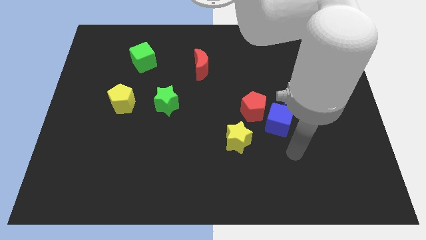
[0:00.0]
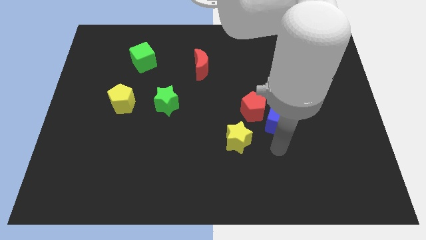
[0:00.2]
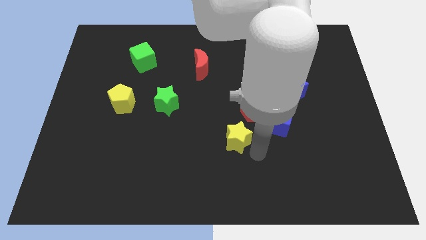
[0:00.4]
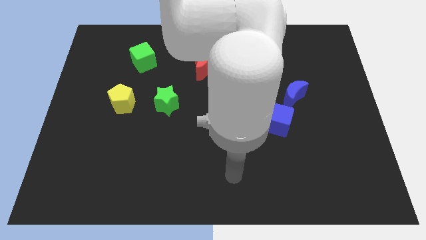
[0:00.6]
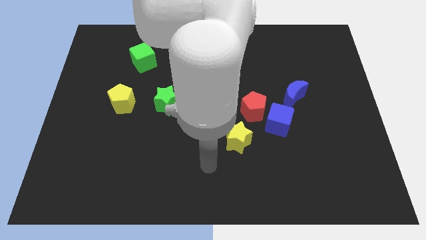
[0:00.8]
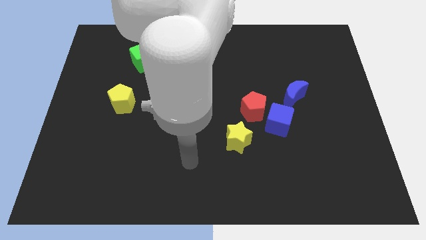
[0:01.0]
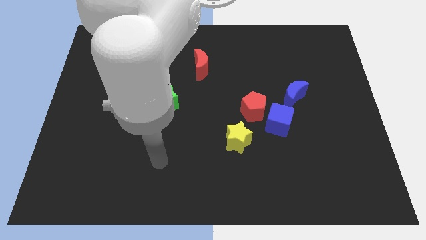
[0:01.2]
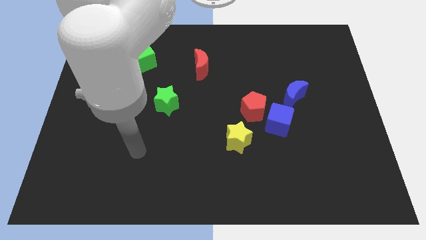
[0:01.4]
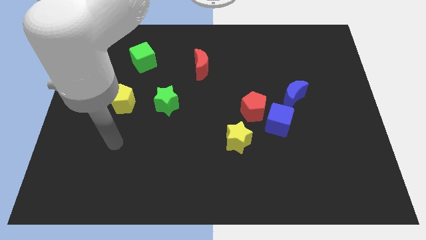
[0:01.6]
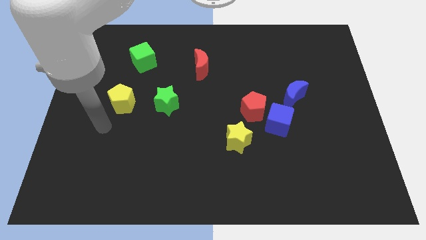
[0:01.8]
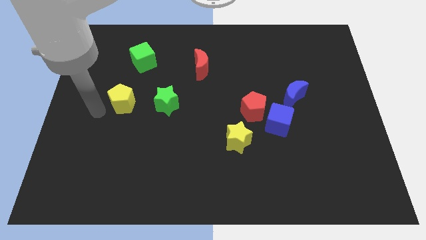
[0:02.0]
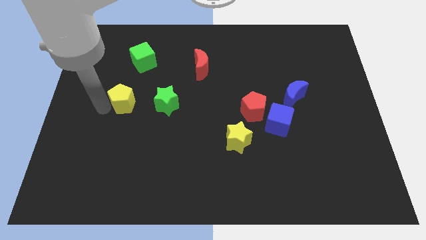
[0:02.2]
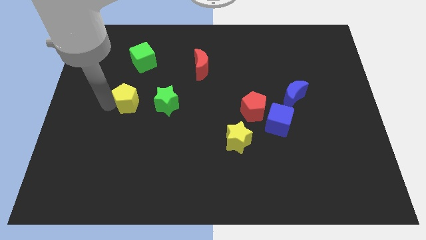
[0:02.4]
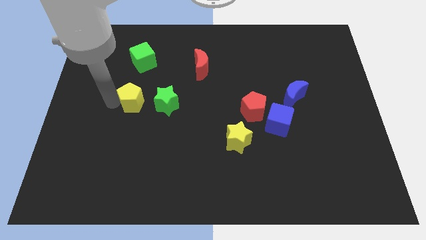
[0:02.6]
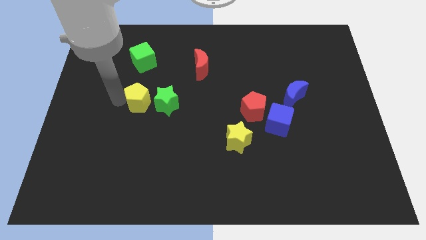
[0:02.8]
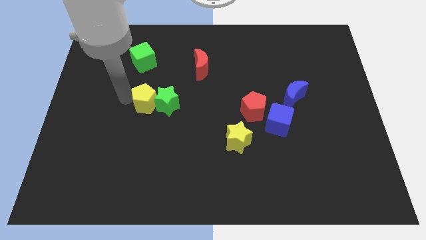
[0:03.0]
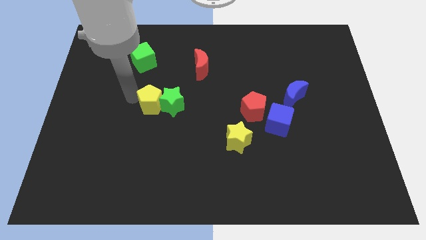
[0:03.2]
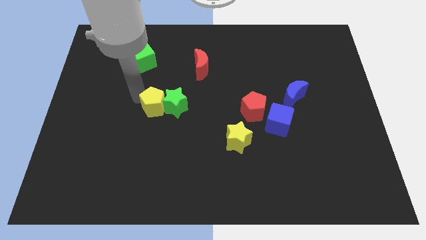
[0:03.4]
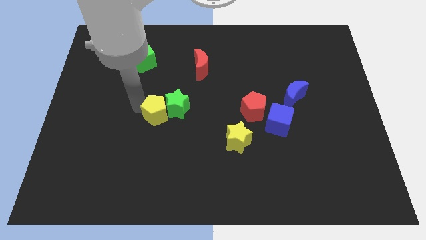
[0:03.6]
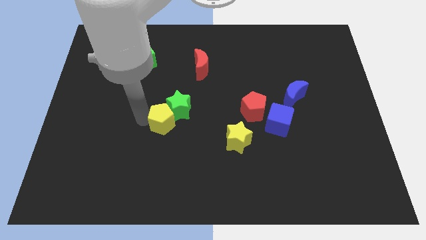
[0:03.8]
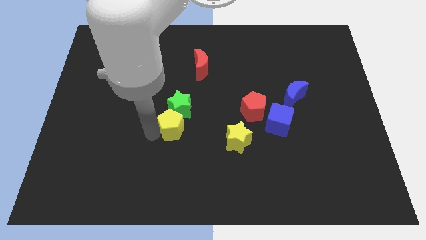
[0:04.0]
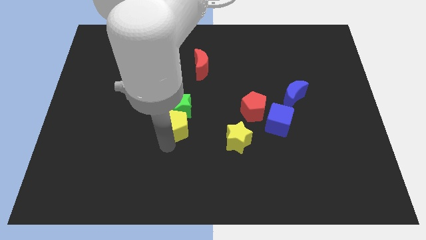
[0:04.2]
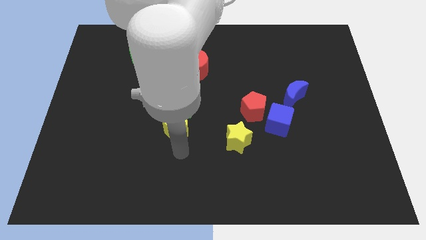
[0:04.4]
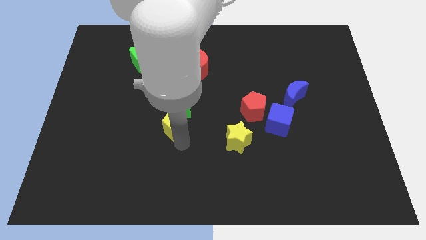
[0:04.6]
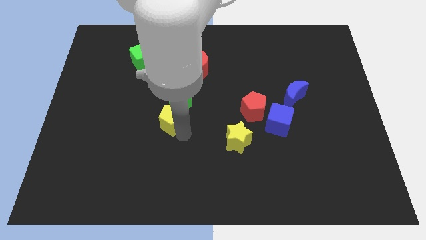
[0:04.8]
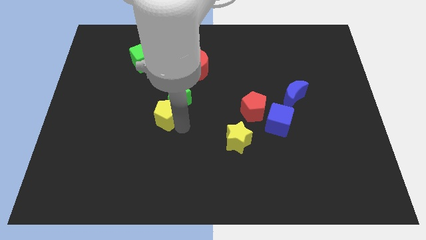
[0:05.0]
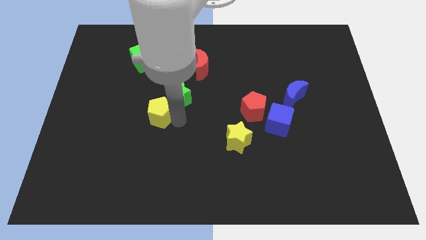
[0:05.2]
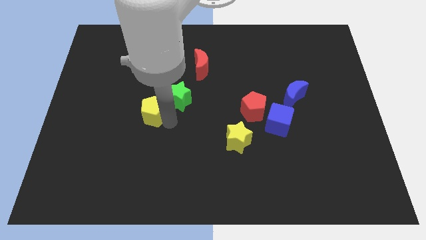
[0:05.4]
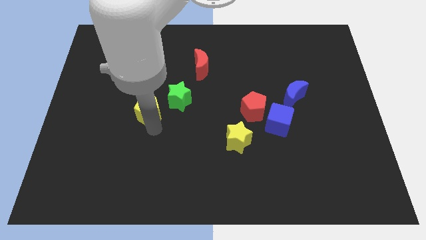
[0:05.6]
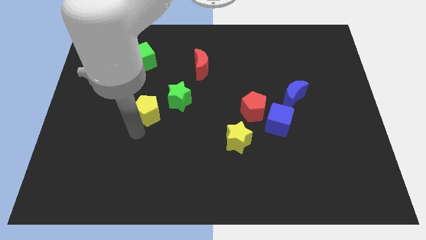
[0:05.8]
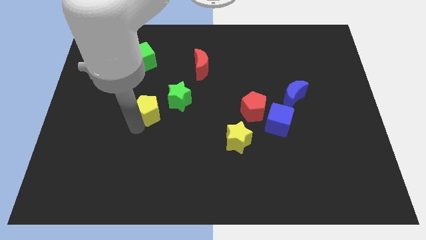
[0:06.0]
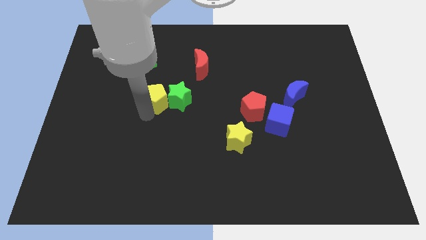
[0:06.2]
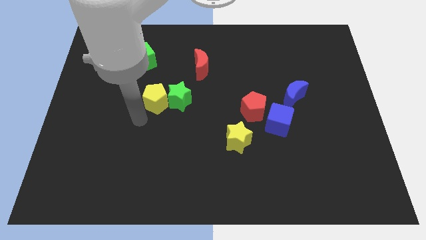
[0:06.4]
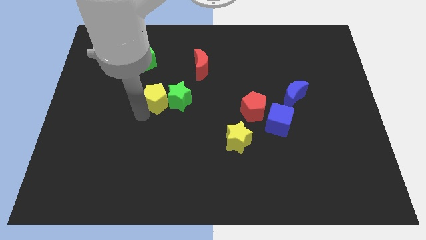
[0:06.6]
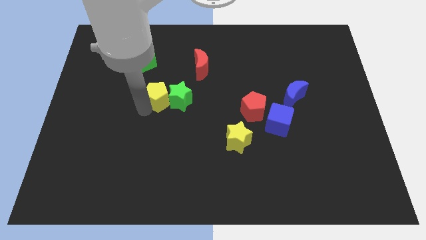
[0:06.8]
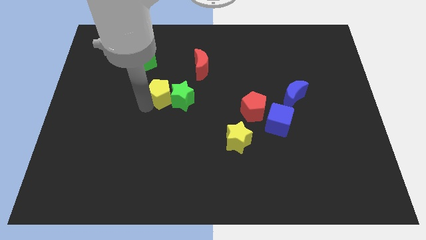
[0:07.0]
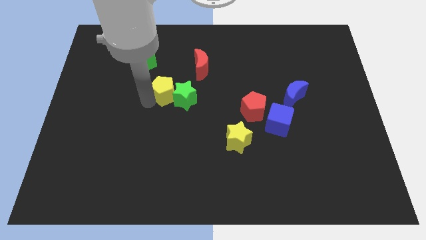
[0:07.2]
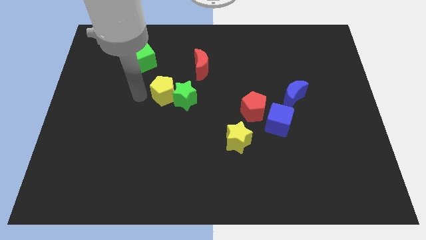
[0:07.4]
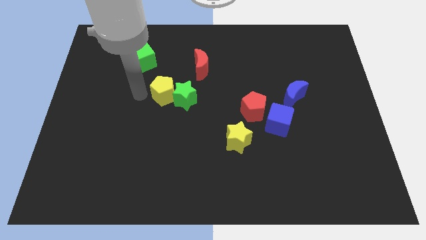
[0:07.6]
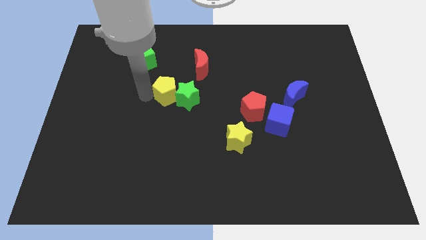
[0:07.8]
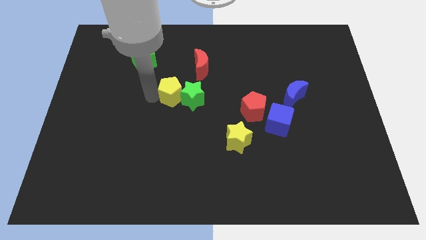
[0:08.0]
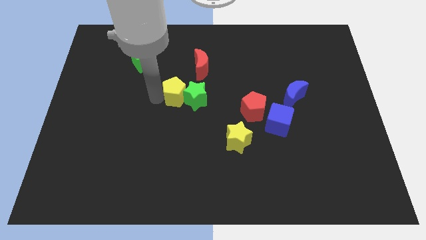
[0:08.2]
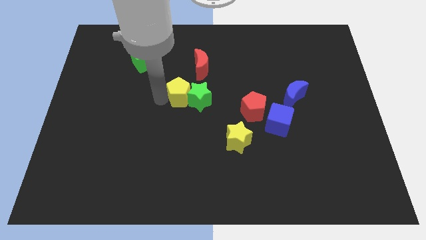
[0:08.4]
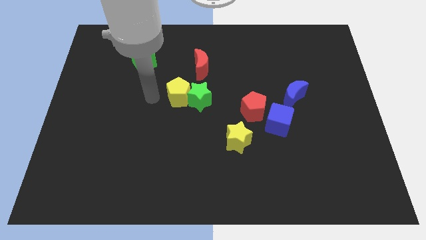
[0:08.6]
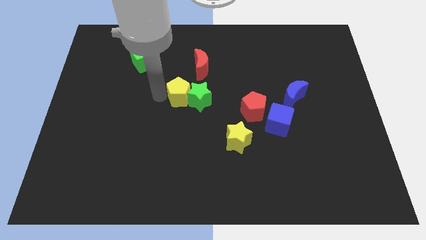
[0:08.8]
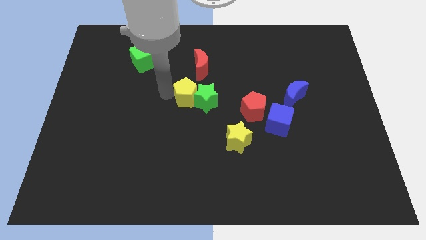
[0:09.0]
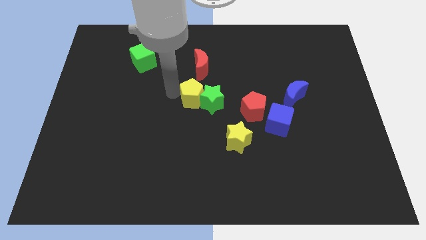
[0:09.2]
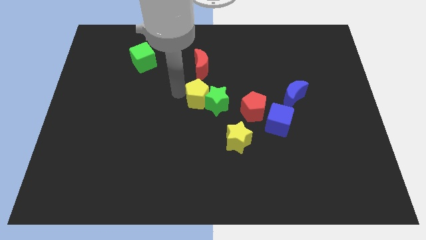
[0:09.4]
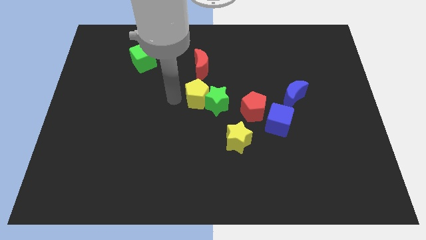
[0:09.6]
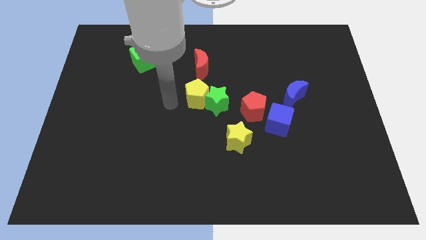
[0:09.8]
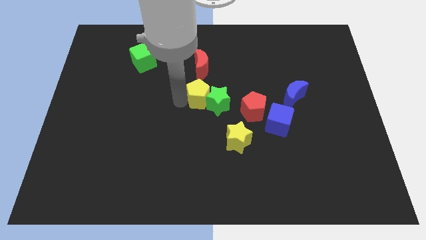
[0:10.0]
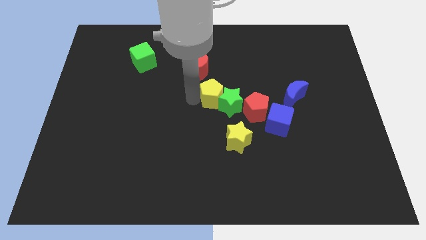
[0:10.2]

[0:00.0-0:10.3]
push the yellow pentagon diagonally up and to the left of the red pentagon

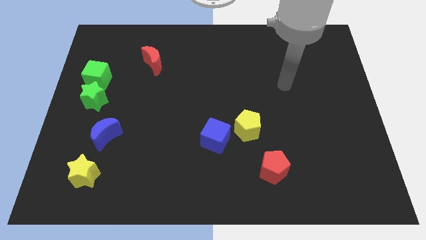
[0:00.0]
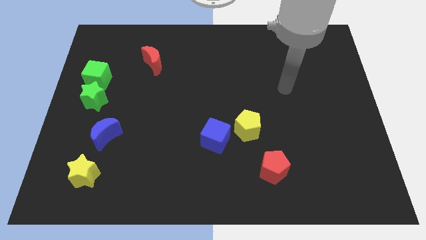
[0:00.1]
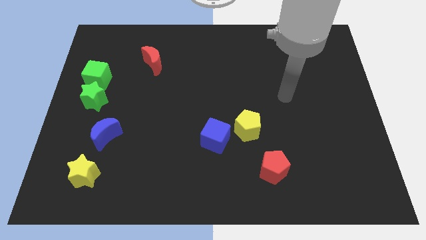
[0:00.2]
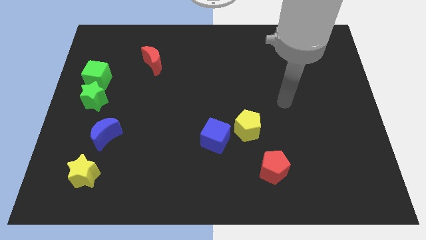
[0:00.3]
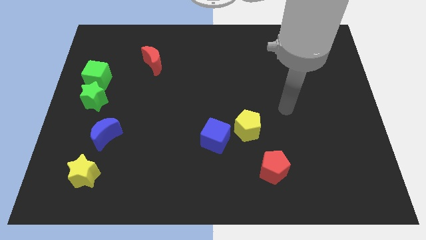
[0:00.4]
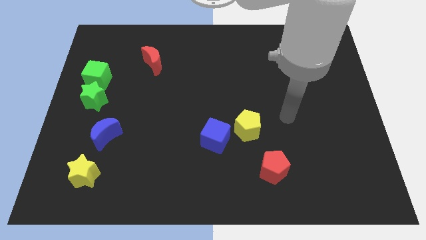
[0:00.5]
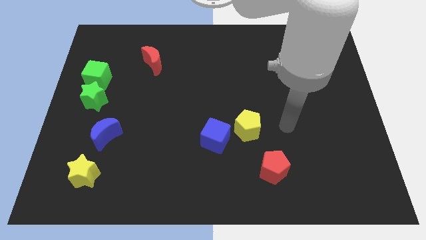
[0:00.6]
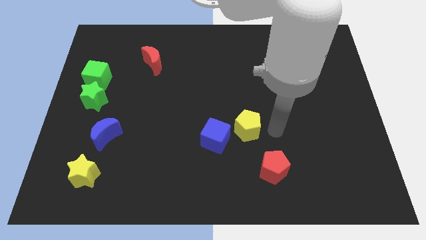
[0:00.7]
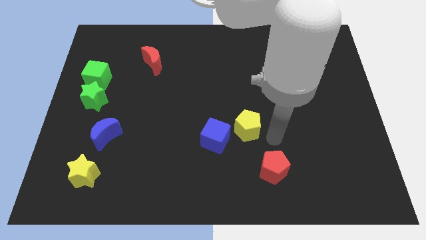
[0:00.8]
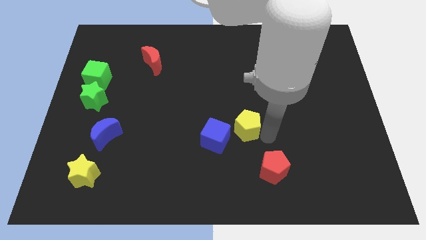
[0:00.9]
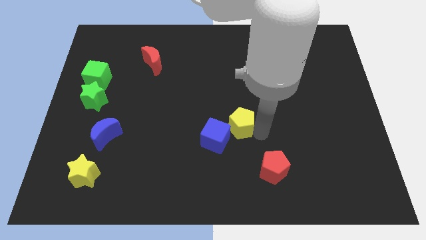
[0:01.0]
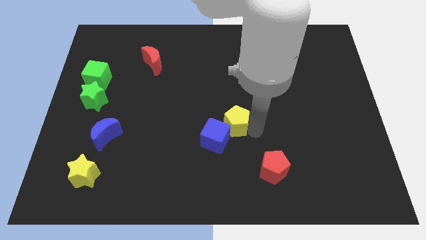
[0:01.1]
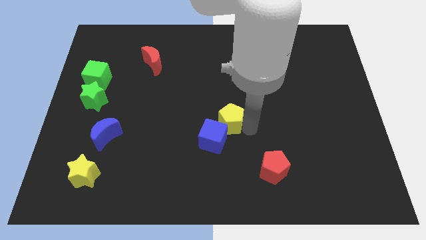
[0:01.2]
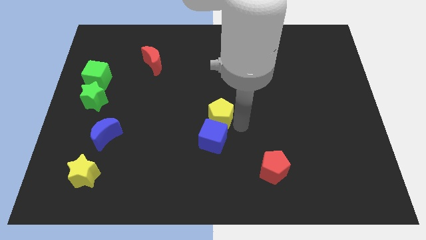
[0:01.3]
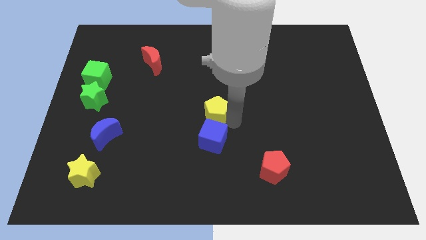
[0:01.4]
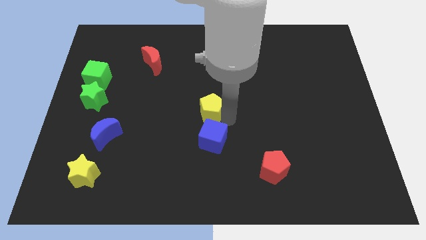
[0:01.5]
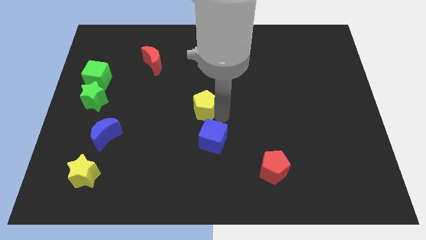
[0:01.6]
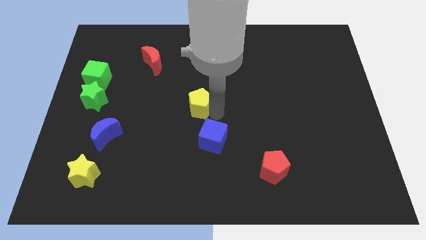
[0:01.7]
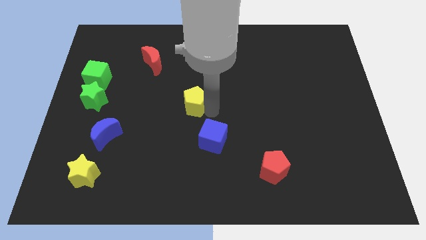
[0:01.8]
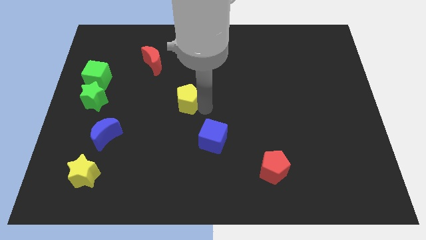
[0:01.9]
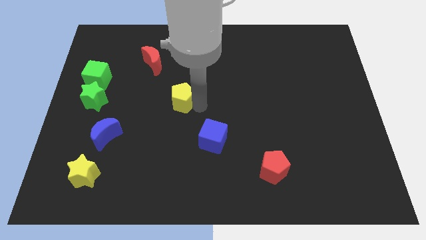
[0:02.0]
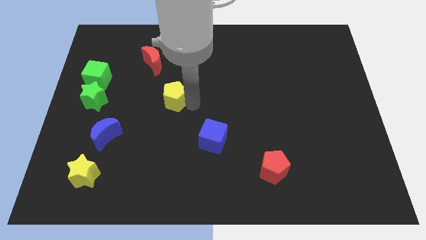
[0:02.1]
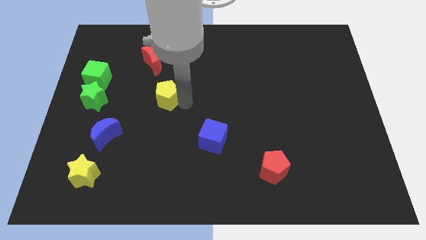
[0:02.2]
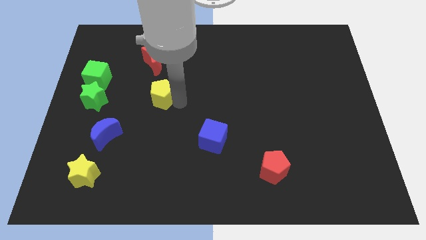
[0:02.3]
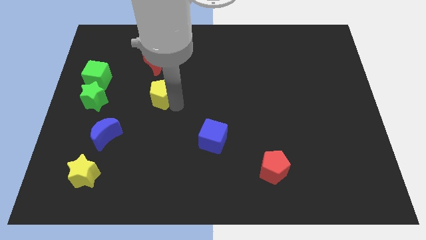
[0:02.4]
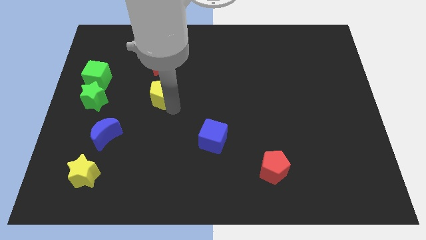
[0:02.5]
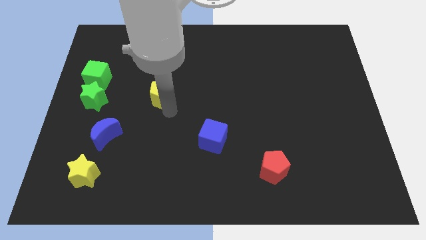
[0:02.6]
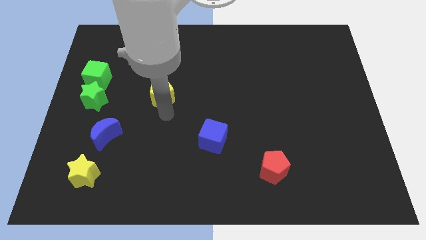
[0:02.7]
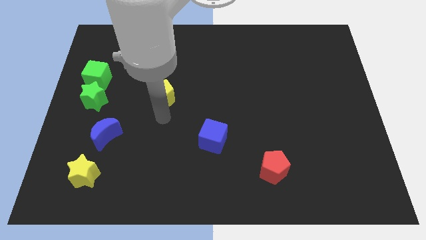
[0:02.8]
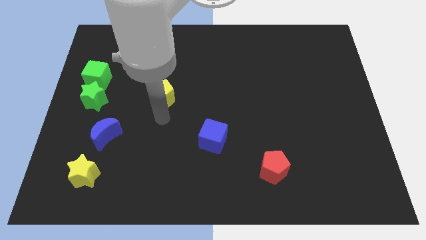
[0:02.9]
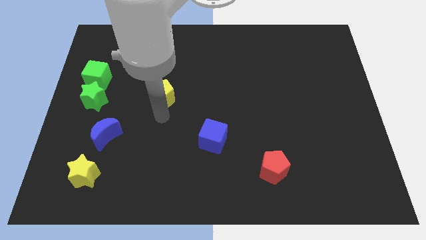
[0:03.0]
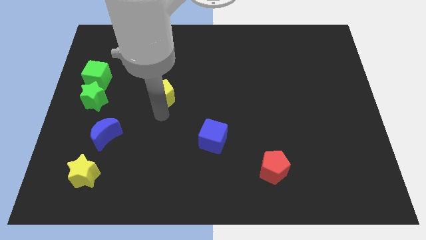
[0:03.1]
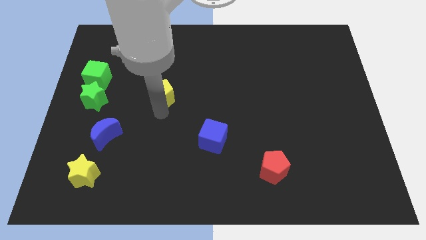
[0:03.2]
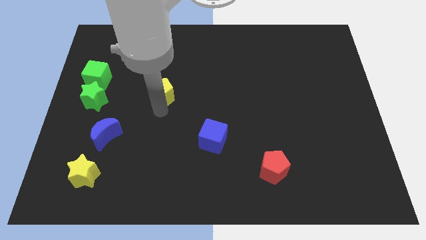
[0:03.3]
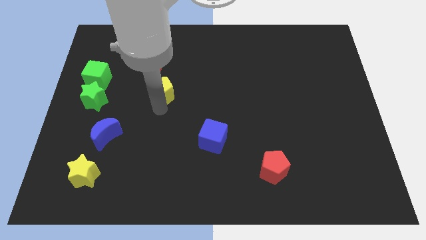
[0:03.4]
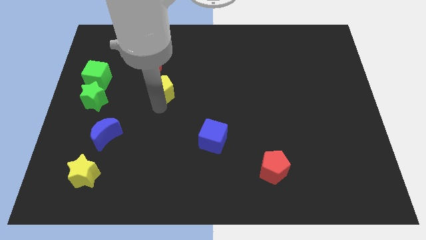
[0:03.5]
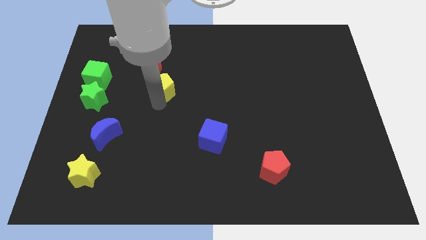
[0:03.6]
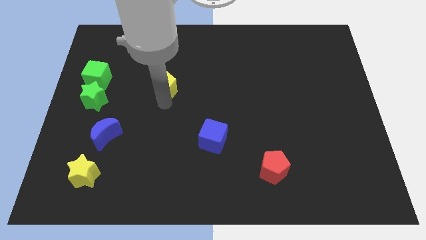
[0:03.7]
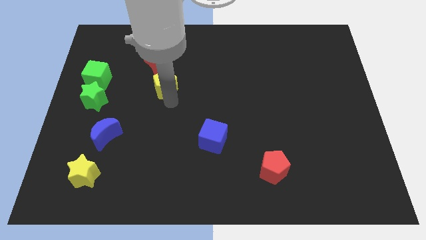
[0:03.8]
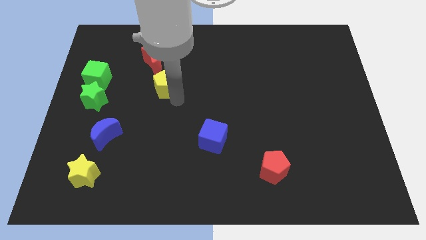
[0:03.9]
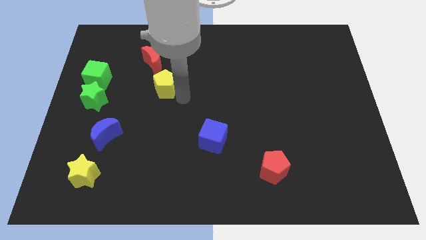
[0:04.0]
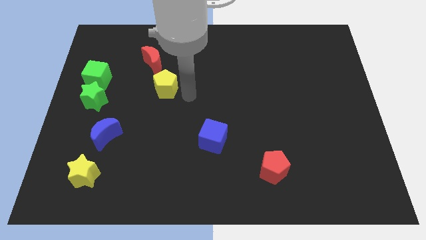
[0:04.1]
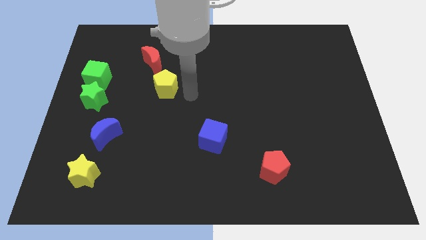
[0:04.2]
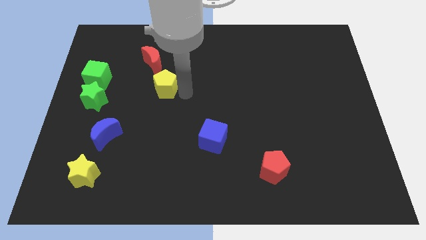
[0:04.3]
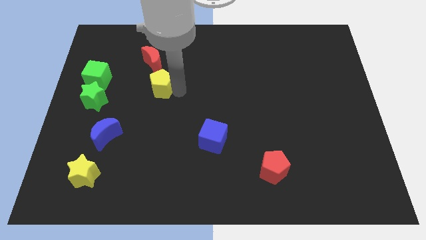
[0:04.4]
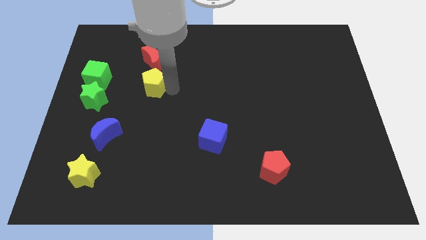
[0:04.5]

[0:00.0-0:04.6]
put the yellow pentagon just right of the green cube
